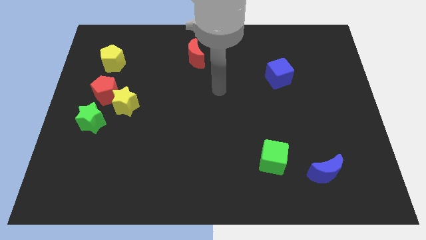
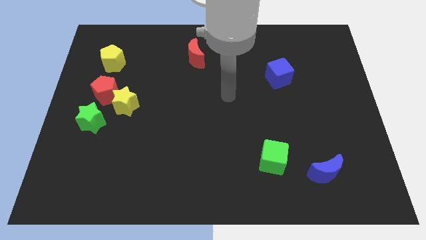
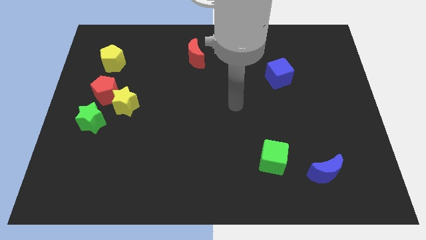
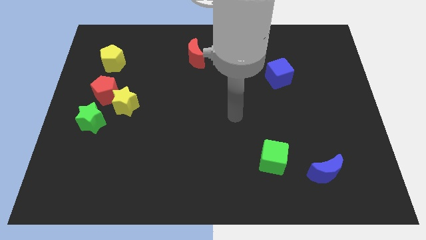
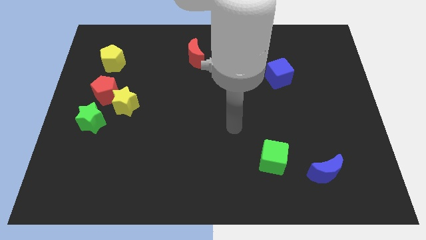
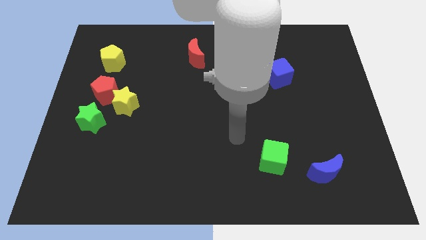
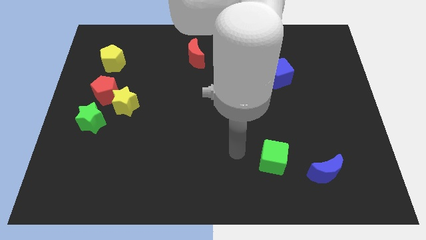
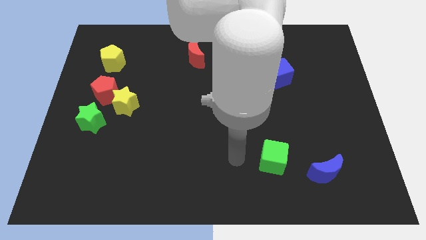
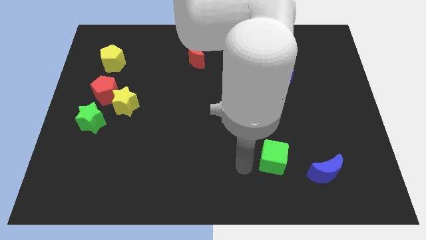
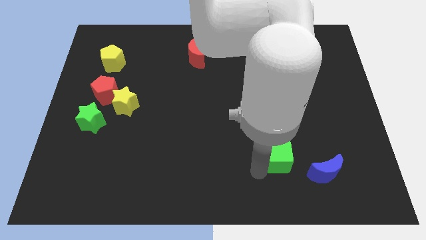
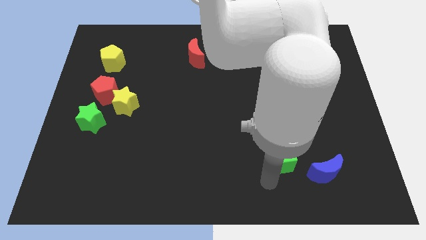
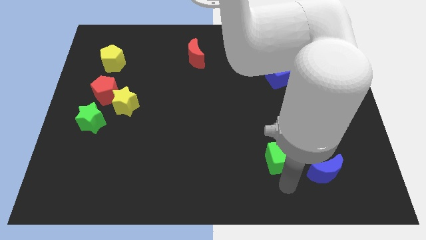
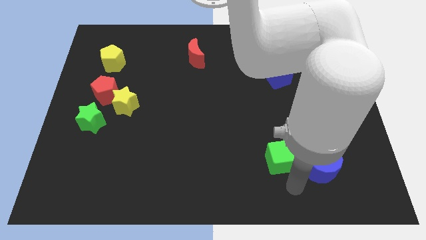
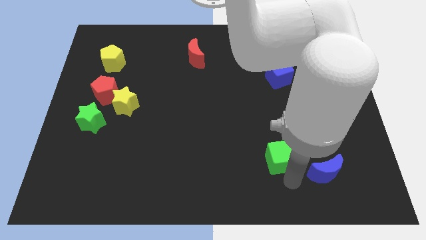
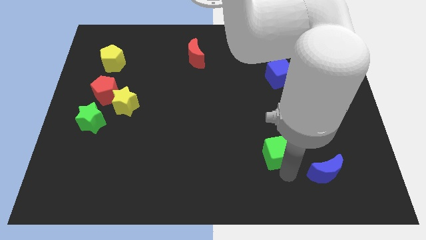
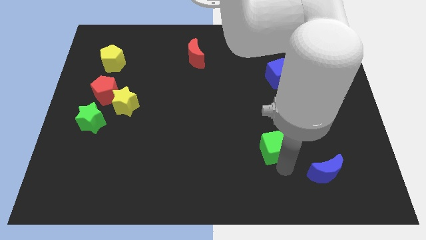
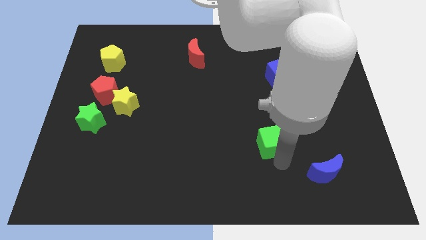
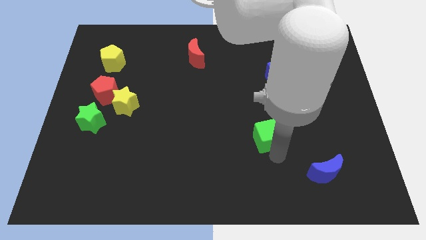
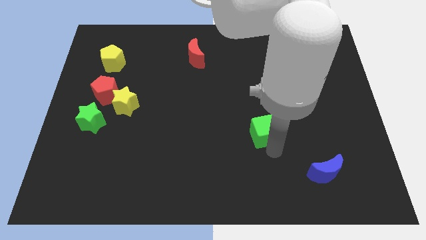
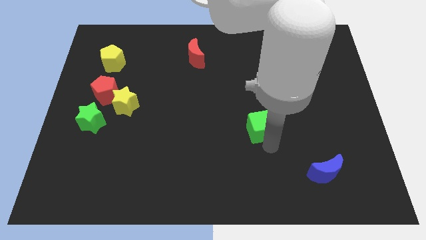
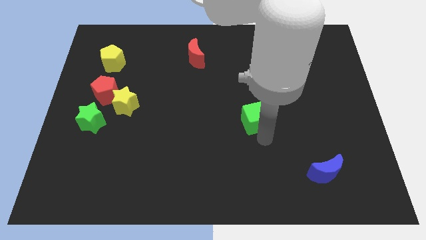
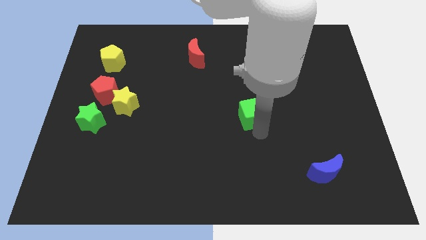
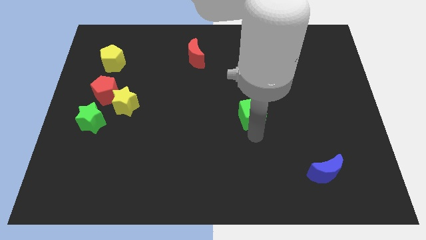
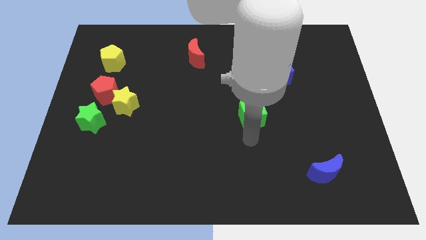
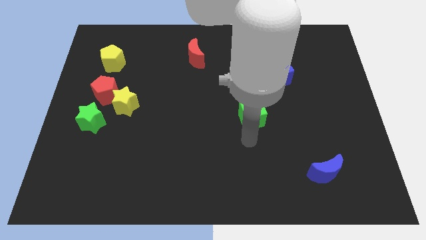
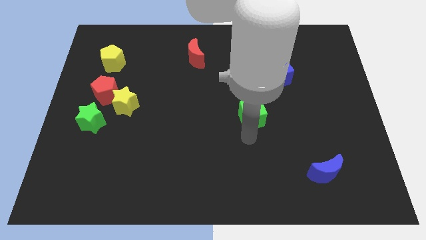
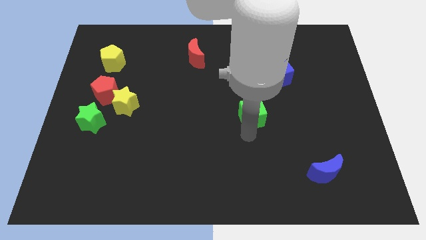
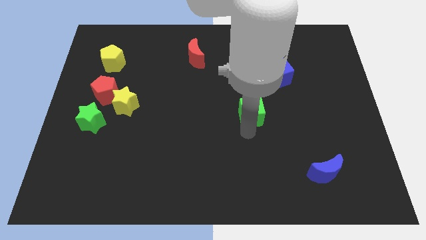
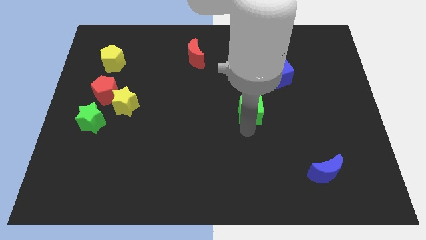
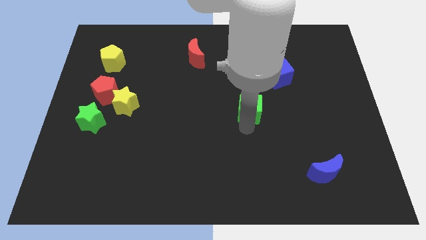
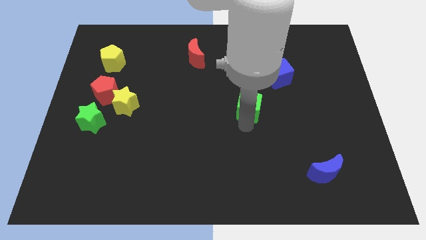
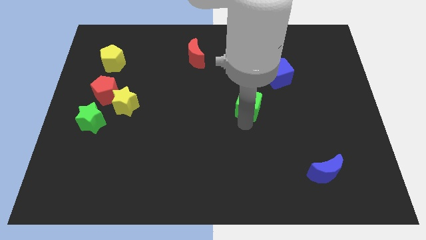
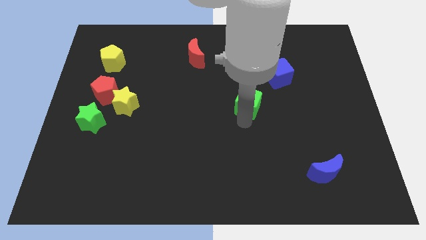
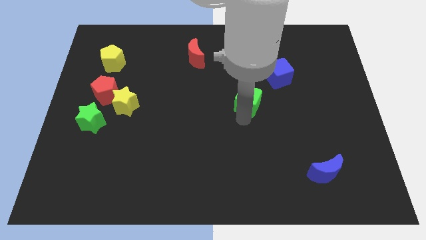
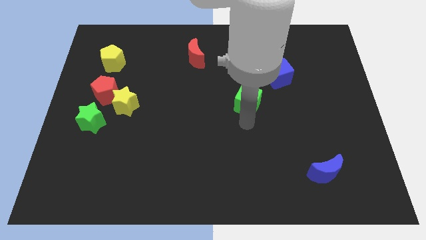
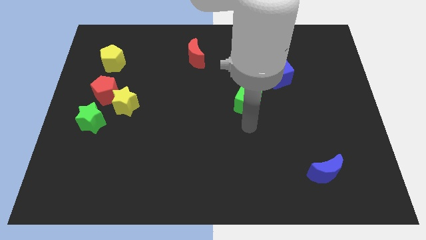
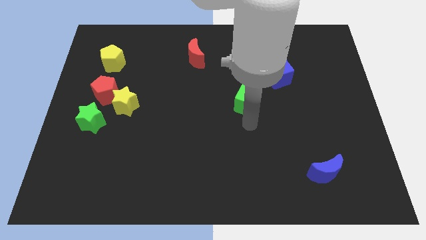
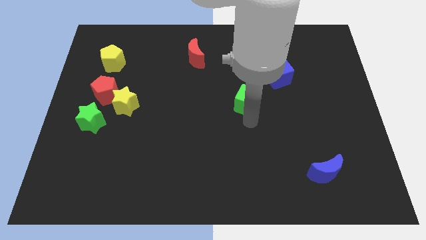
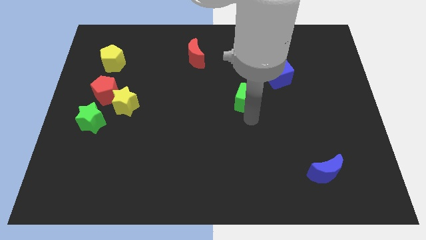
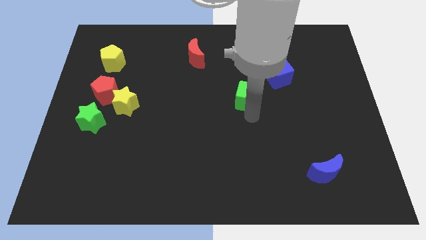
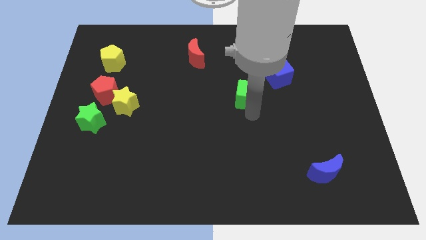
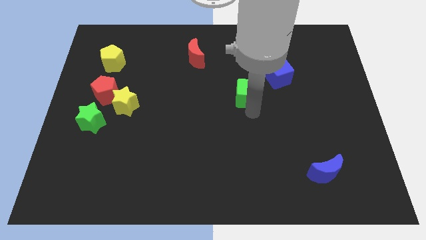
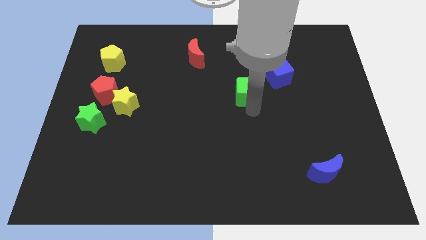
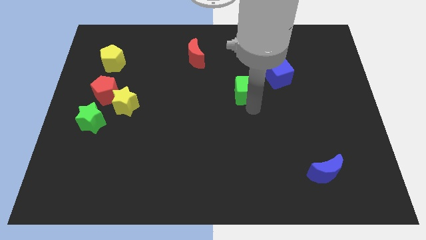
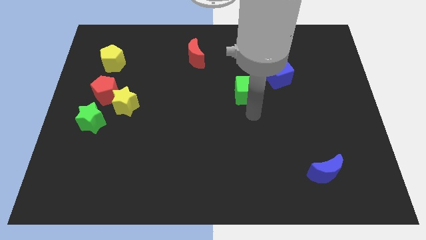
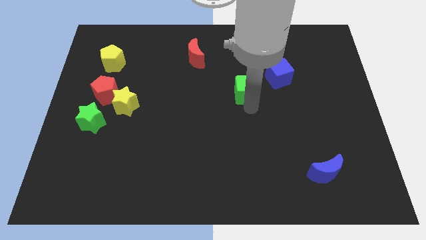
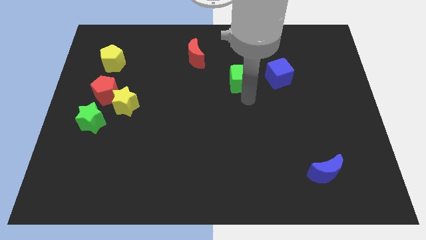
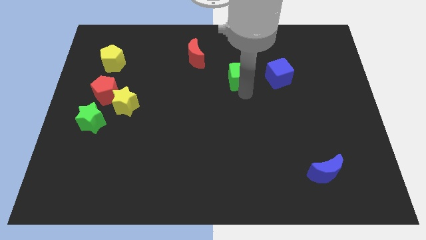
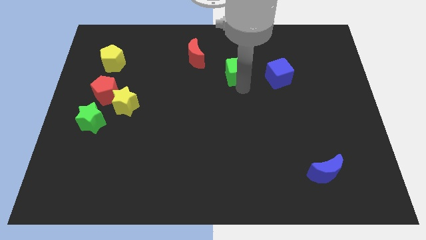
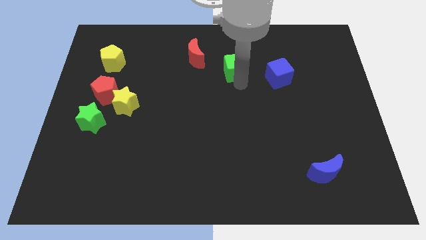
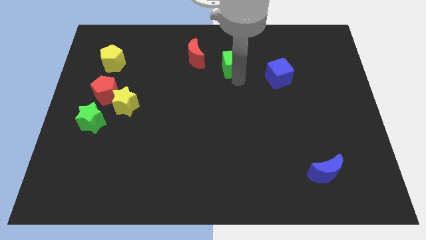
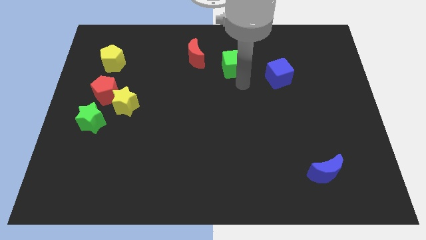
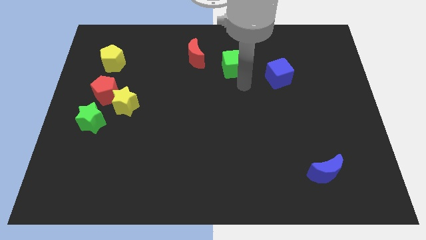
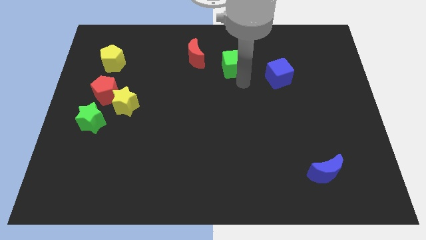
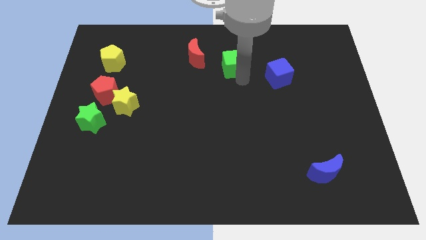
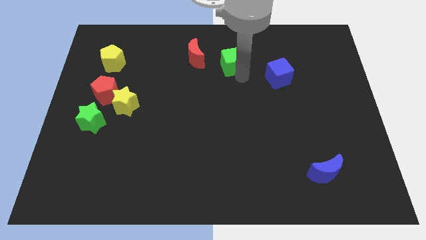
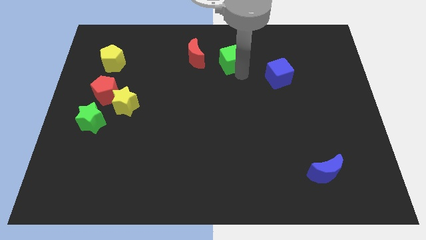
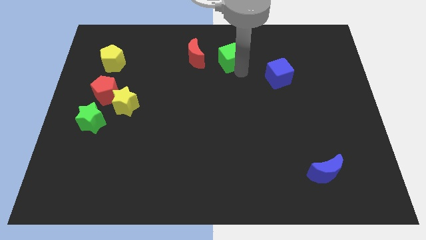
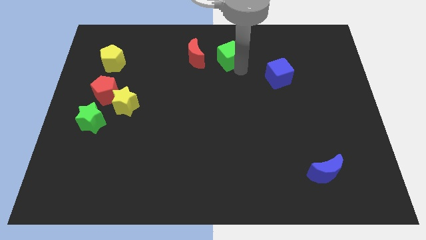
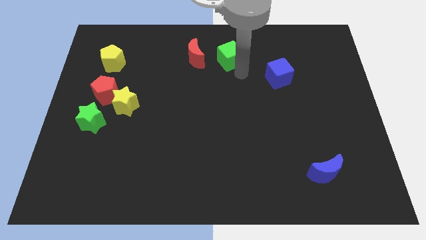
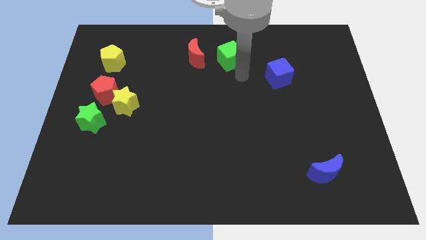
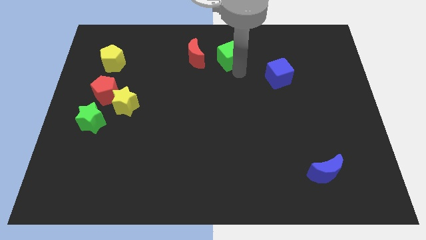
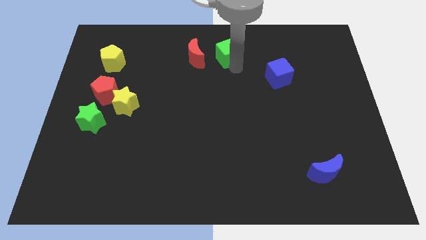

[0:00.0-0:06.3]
move the green cube to the towards your base
